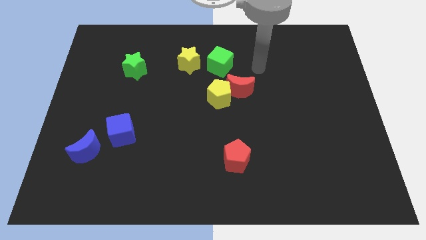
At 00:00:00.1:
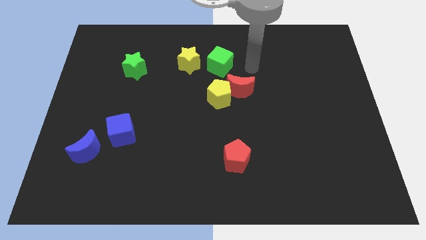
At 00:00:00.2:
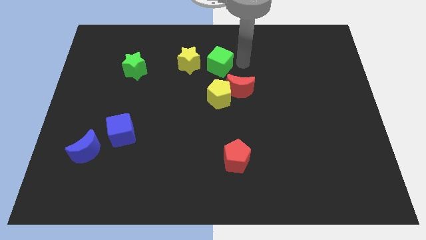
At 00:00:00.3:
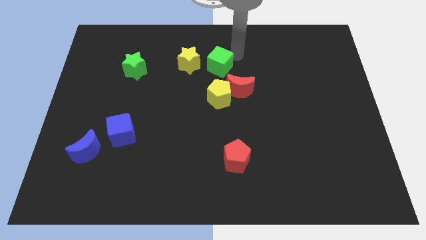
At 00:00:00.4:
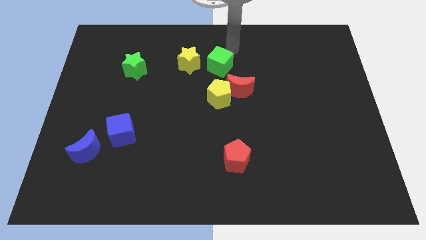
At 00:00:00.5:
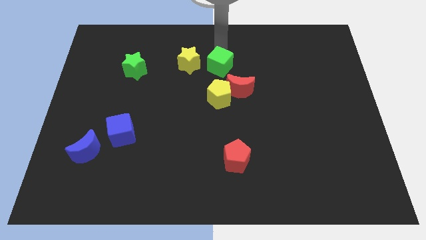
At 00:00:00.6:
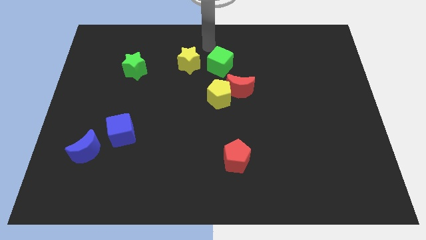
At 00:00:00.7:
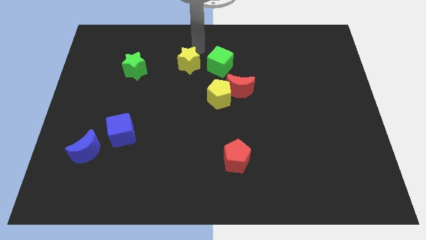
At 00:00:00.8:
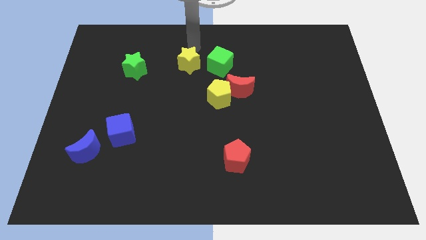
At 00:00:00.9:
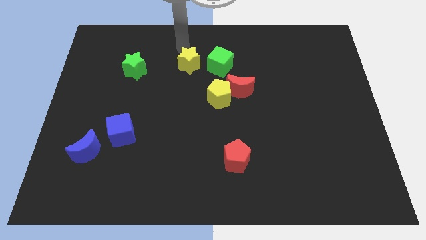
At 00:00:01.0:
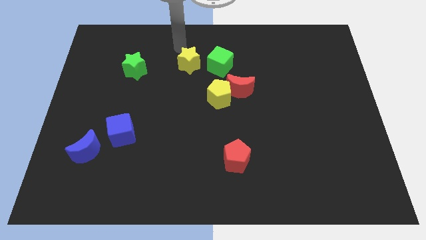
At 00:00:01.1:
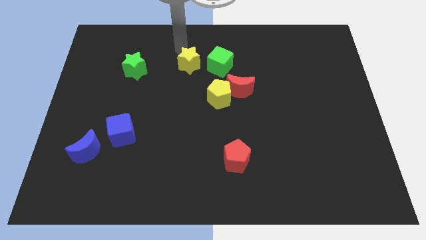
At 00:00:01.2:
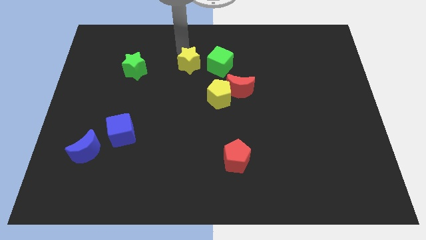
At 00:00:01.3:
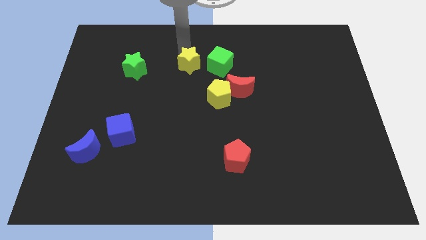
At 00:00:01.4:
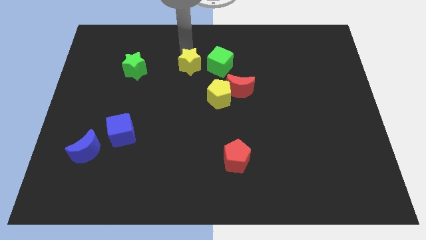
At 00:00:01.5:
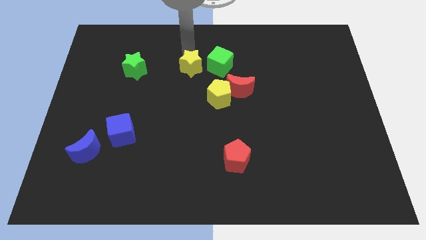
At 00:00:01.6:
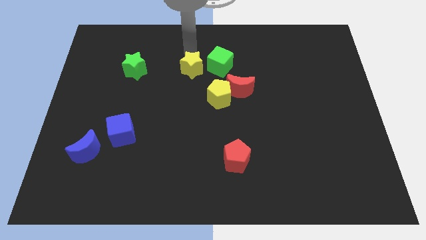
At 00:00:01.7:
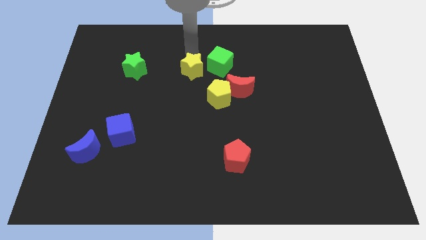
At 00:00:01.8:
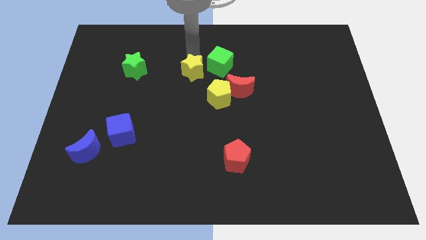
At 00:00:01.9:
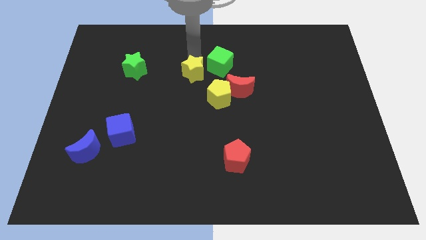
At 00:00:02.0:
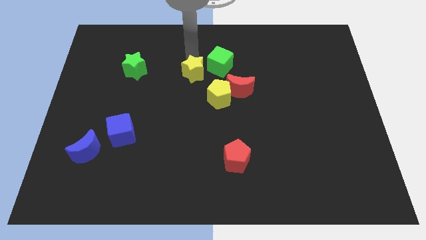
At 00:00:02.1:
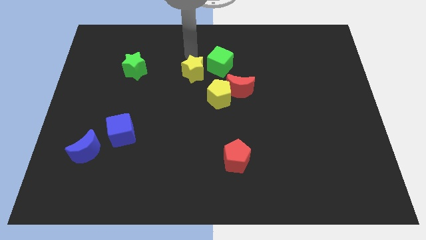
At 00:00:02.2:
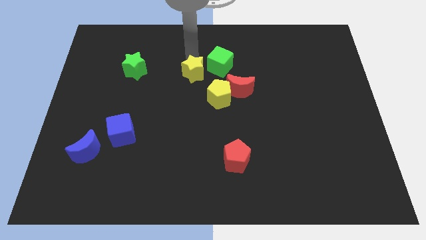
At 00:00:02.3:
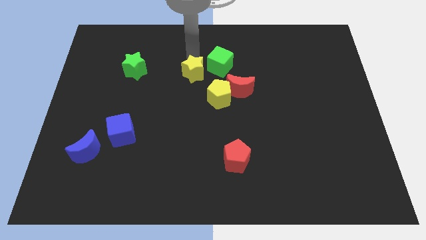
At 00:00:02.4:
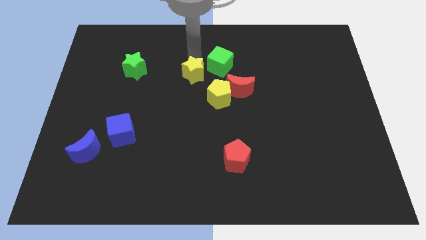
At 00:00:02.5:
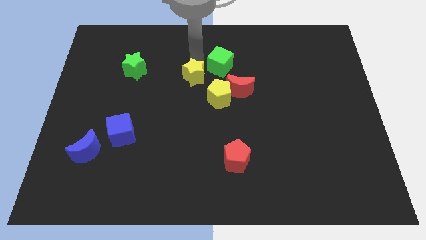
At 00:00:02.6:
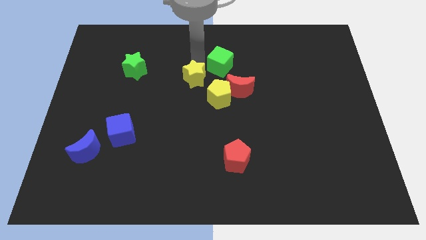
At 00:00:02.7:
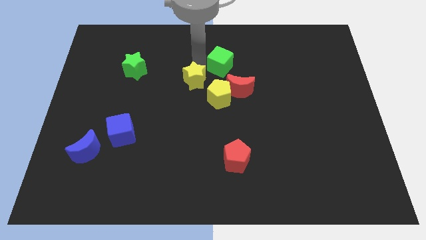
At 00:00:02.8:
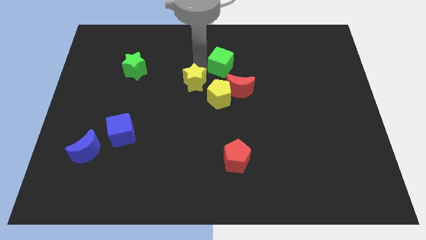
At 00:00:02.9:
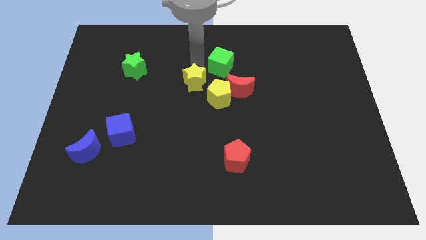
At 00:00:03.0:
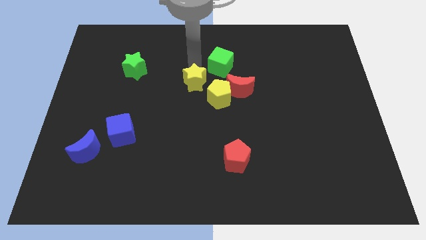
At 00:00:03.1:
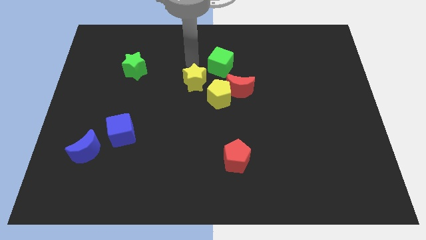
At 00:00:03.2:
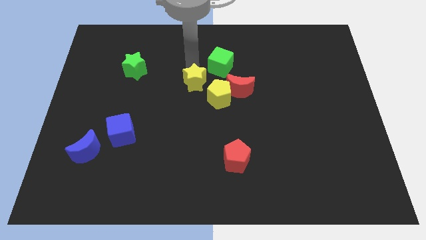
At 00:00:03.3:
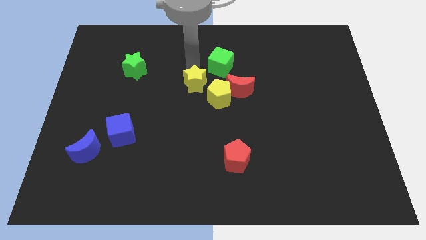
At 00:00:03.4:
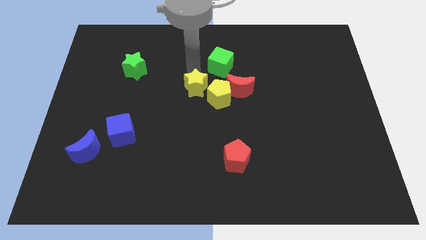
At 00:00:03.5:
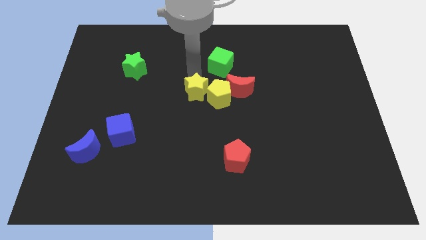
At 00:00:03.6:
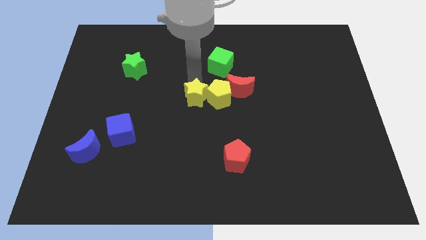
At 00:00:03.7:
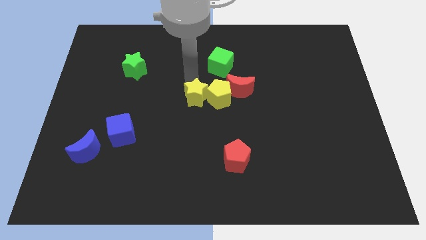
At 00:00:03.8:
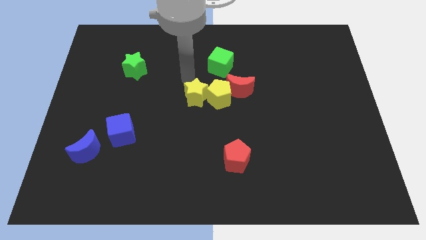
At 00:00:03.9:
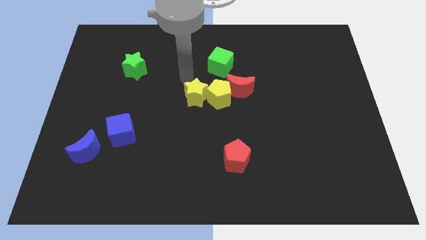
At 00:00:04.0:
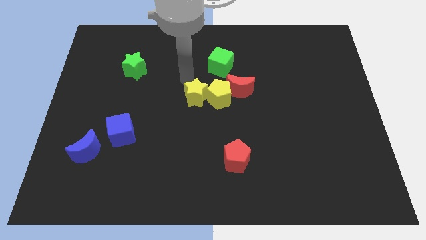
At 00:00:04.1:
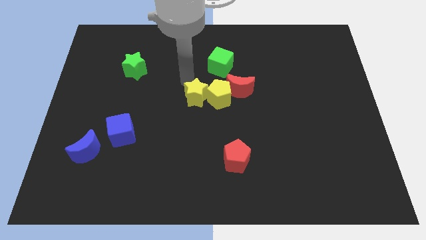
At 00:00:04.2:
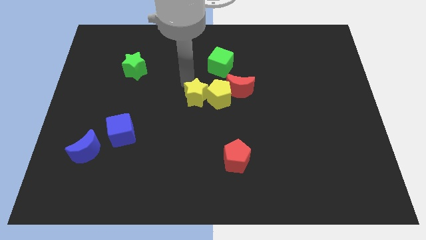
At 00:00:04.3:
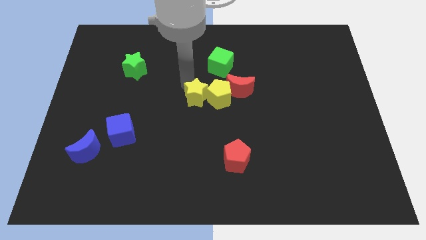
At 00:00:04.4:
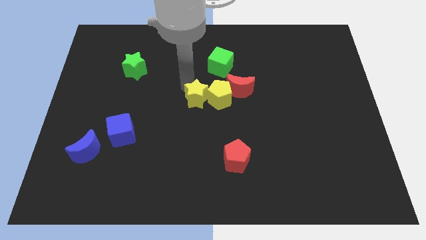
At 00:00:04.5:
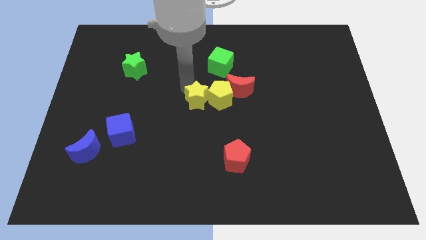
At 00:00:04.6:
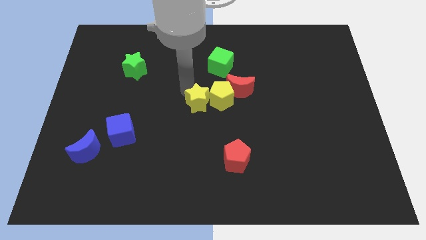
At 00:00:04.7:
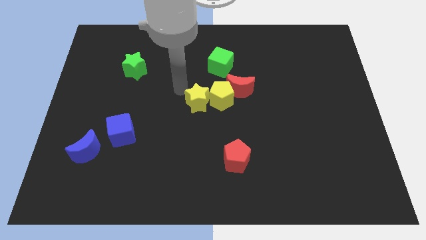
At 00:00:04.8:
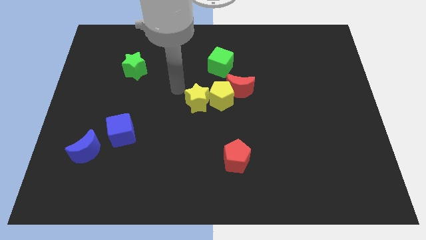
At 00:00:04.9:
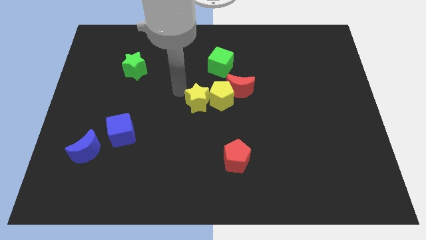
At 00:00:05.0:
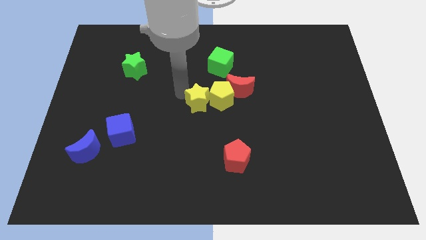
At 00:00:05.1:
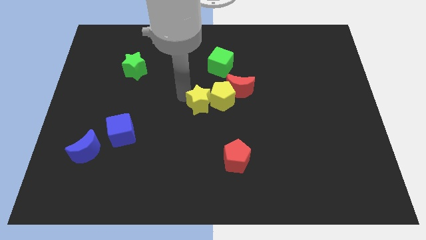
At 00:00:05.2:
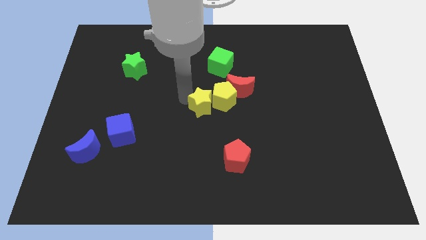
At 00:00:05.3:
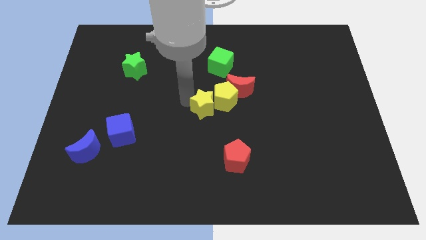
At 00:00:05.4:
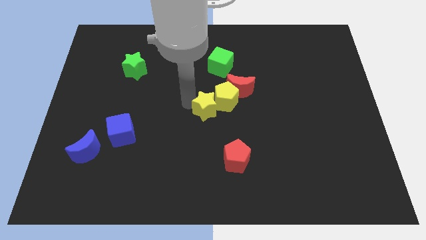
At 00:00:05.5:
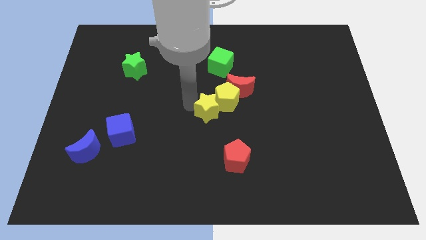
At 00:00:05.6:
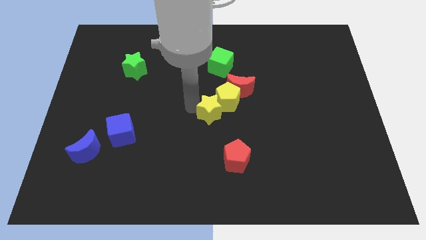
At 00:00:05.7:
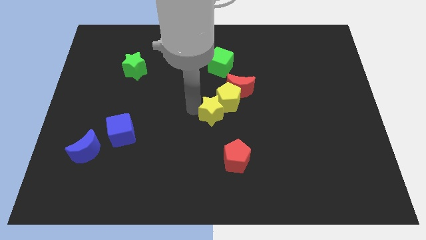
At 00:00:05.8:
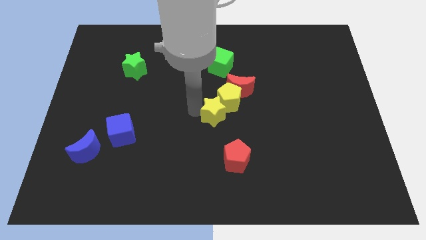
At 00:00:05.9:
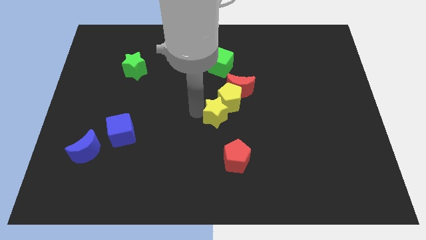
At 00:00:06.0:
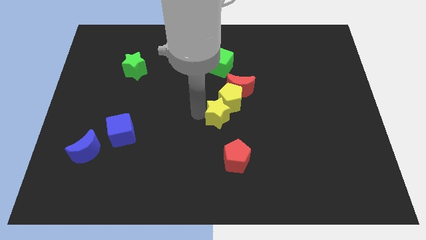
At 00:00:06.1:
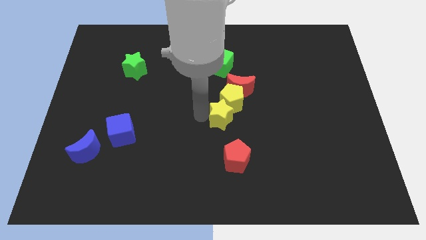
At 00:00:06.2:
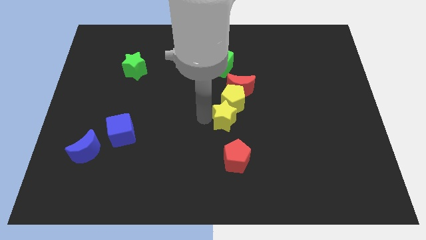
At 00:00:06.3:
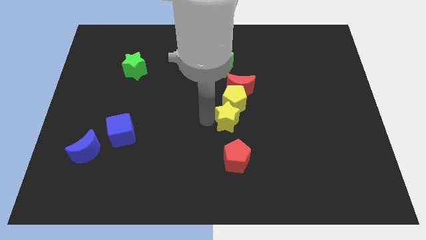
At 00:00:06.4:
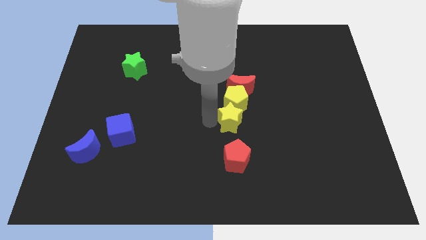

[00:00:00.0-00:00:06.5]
slide the yellow star to the bottom right of the yellow pentagon

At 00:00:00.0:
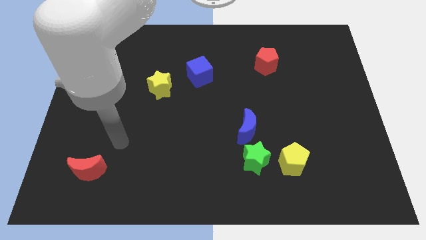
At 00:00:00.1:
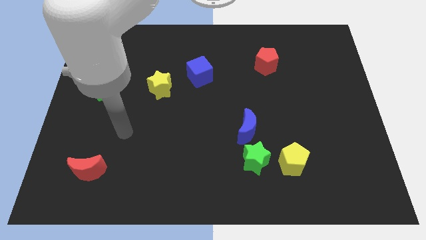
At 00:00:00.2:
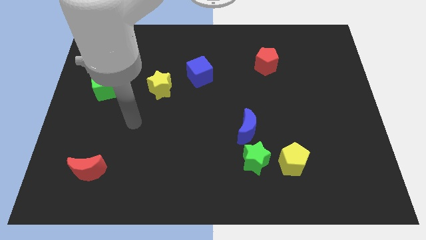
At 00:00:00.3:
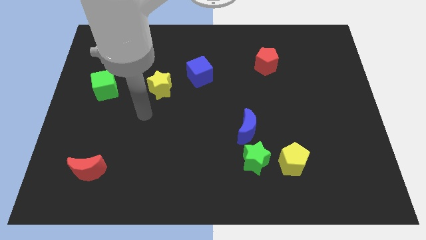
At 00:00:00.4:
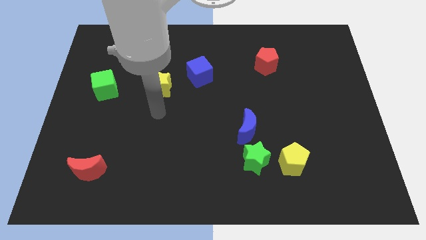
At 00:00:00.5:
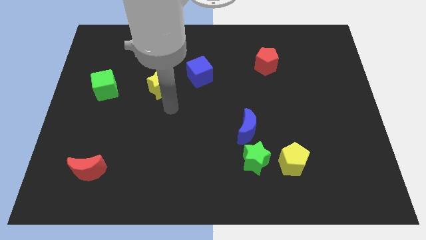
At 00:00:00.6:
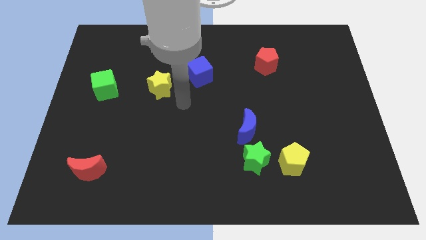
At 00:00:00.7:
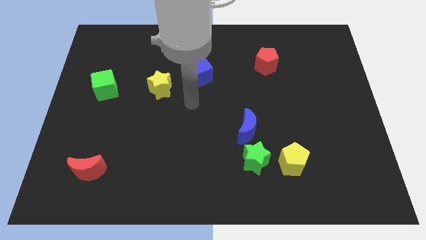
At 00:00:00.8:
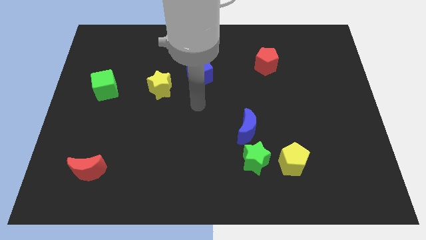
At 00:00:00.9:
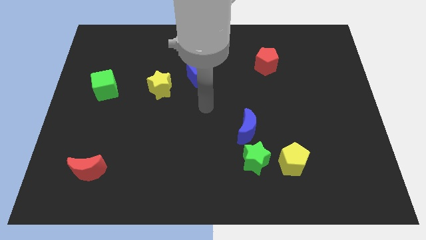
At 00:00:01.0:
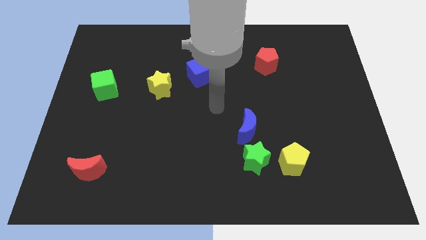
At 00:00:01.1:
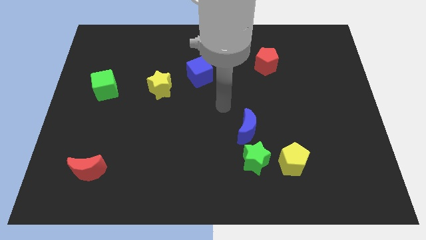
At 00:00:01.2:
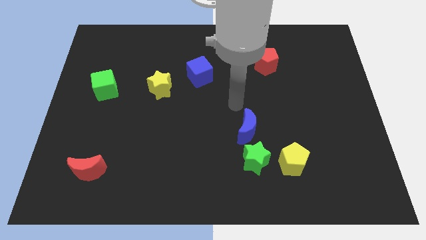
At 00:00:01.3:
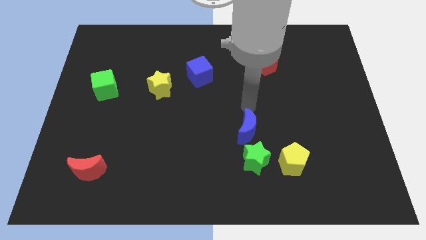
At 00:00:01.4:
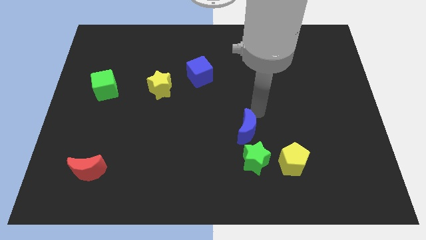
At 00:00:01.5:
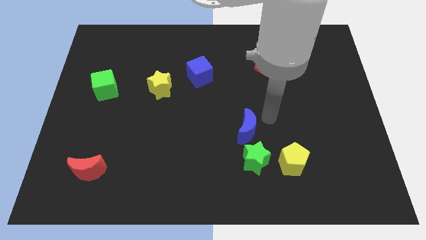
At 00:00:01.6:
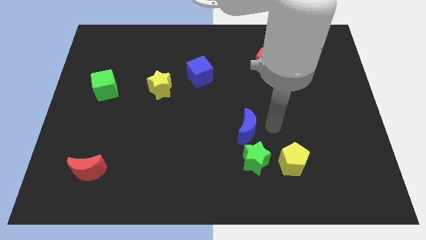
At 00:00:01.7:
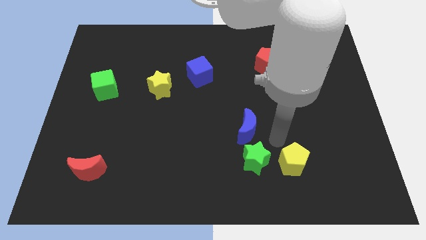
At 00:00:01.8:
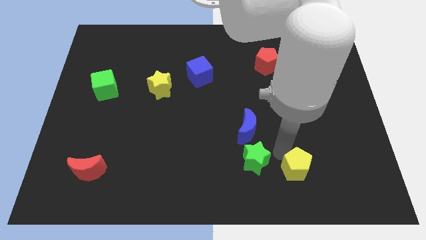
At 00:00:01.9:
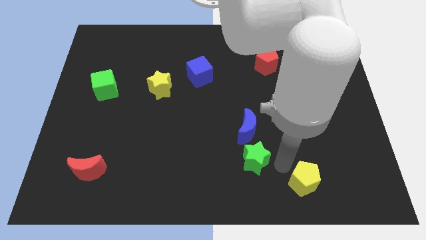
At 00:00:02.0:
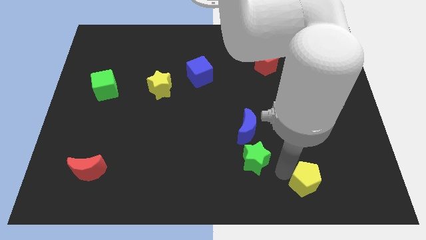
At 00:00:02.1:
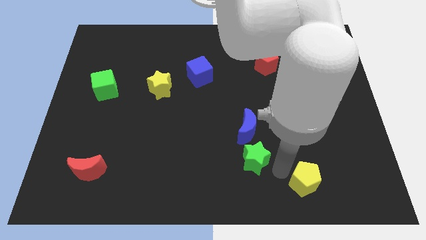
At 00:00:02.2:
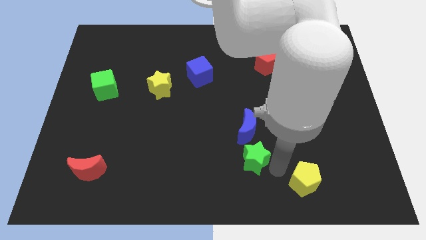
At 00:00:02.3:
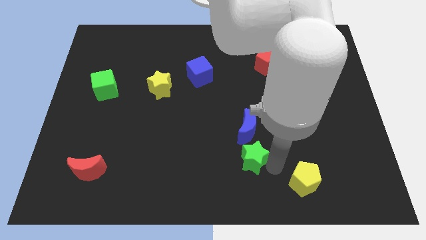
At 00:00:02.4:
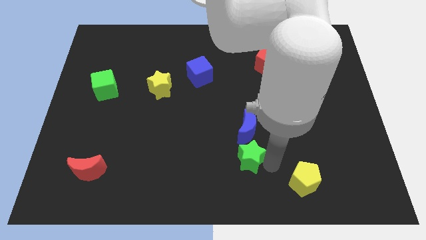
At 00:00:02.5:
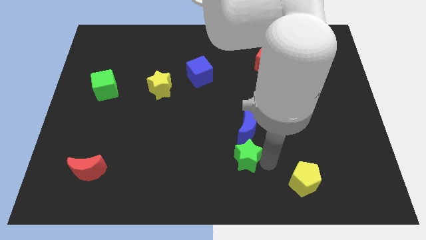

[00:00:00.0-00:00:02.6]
slide the green star diagonally down and to the left of the blue moon
